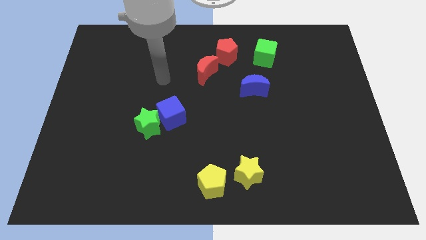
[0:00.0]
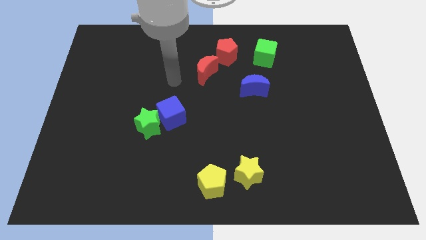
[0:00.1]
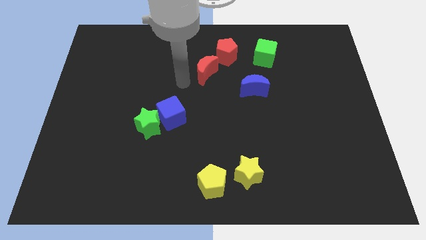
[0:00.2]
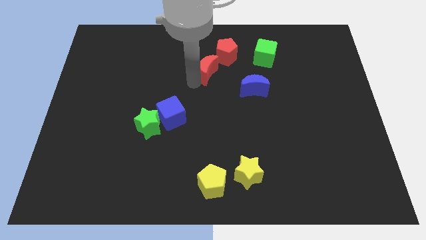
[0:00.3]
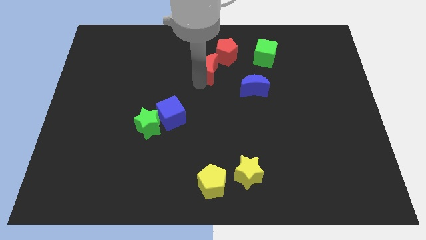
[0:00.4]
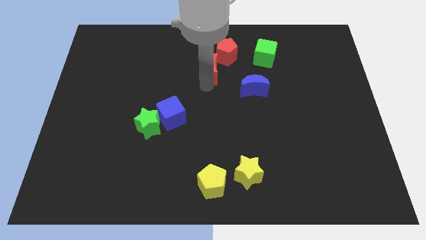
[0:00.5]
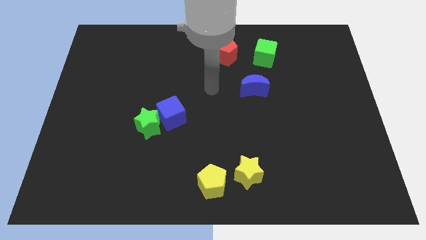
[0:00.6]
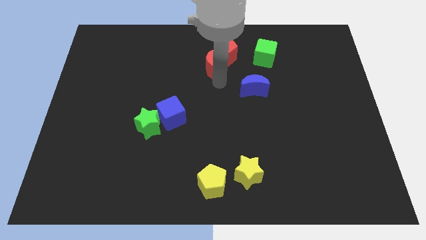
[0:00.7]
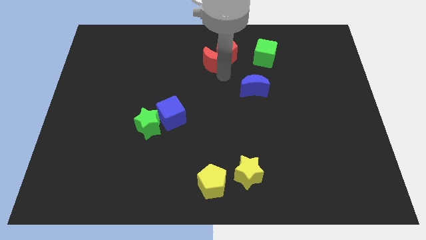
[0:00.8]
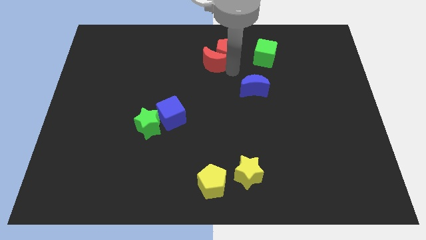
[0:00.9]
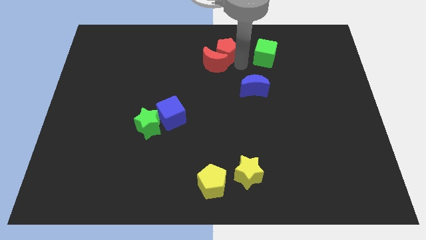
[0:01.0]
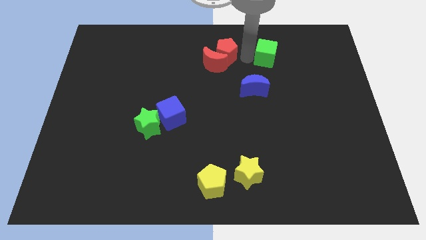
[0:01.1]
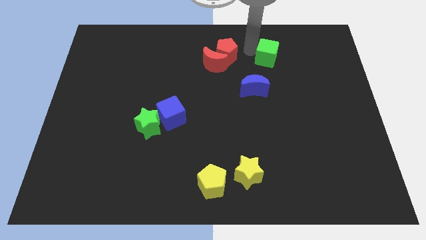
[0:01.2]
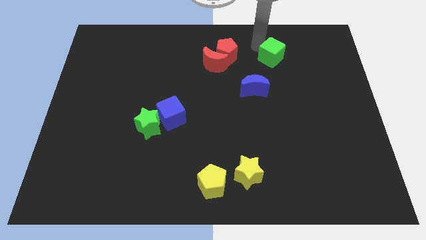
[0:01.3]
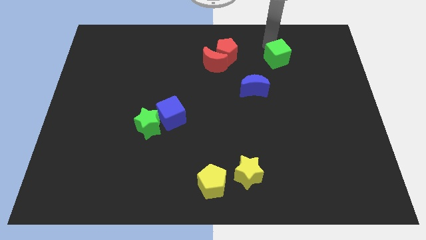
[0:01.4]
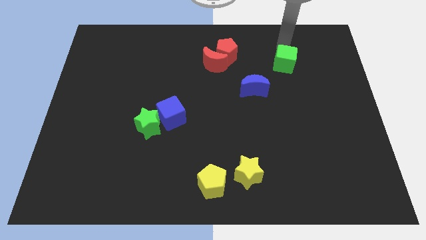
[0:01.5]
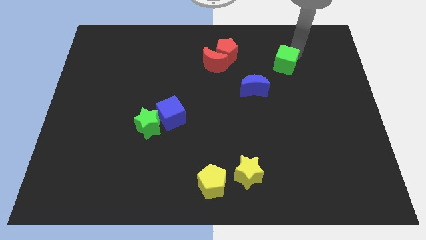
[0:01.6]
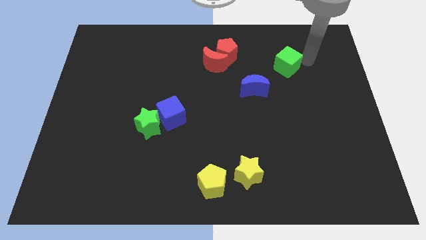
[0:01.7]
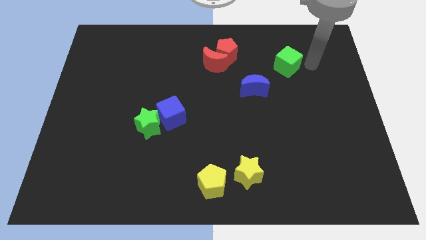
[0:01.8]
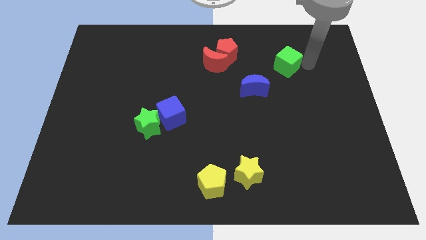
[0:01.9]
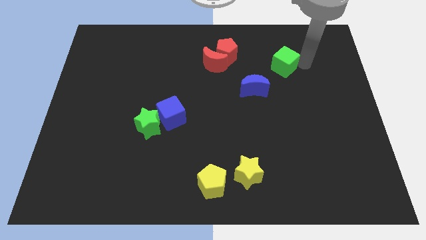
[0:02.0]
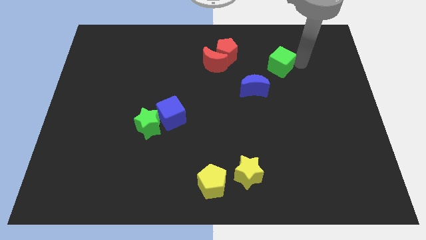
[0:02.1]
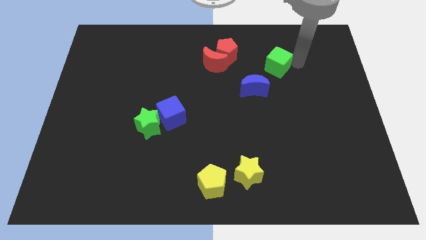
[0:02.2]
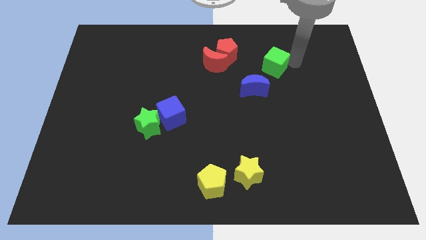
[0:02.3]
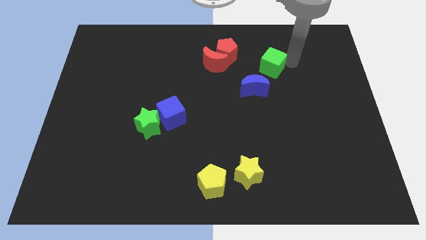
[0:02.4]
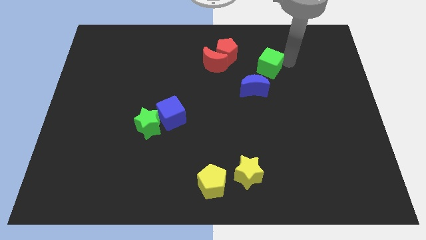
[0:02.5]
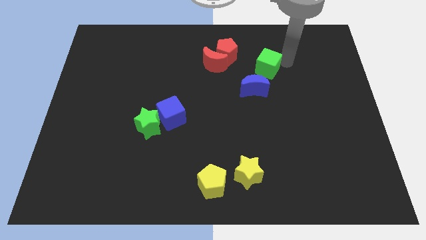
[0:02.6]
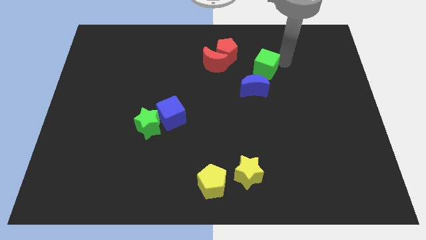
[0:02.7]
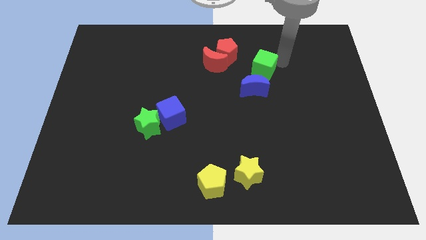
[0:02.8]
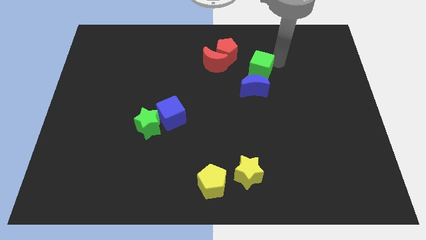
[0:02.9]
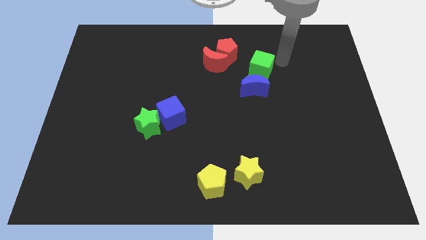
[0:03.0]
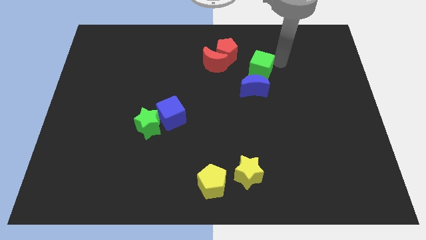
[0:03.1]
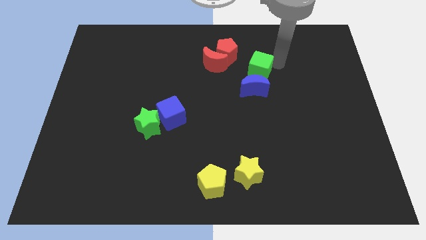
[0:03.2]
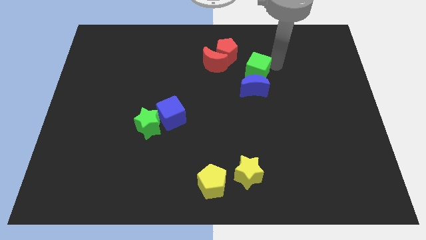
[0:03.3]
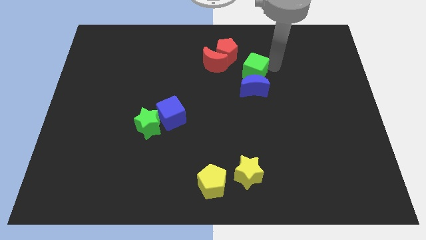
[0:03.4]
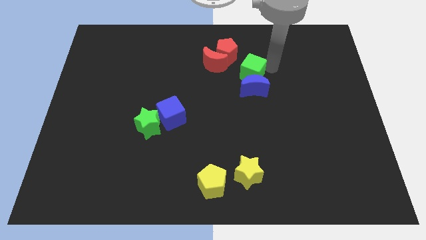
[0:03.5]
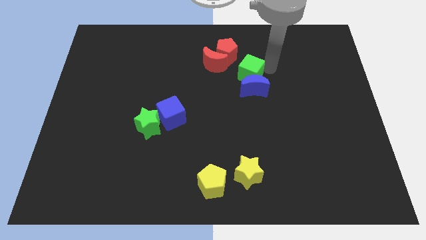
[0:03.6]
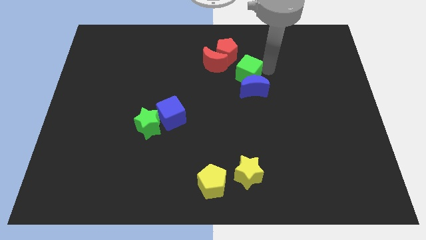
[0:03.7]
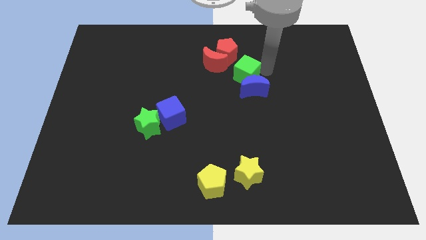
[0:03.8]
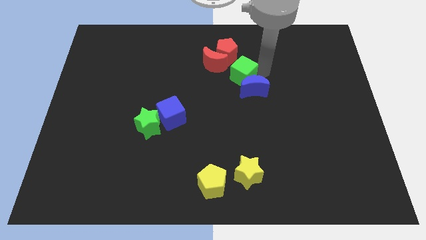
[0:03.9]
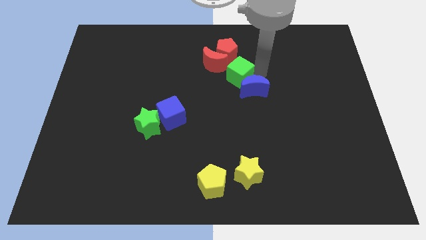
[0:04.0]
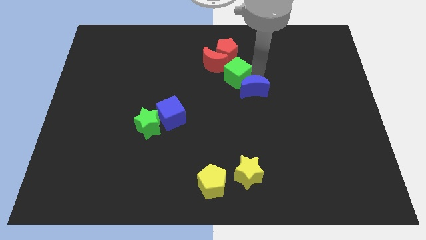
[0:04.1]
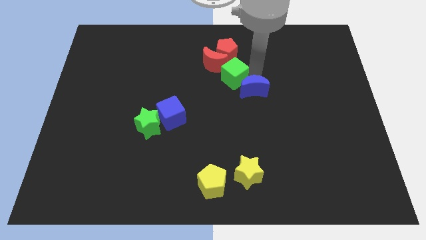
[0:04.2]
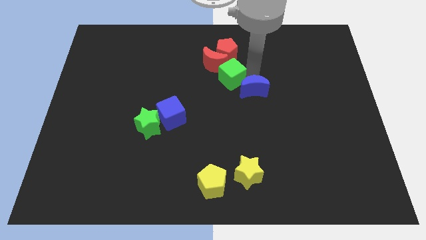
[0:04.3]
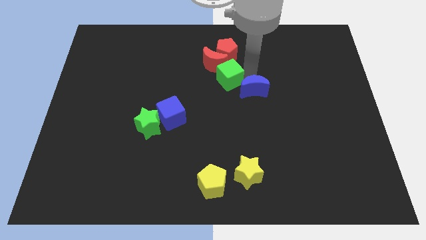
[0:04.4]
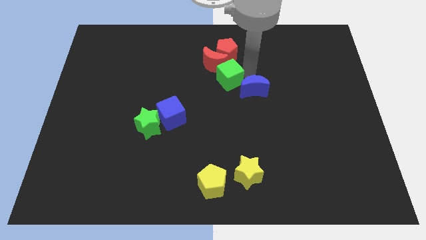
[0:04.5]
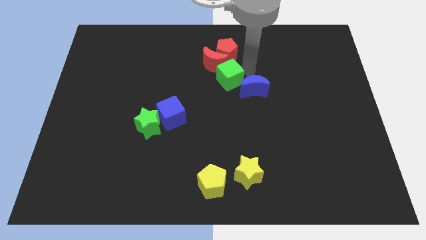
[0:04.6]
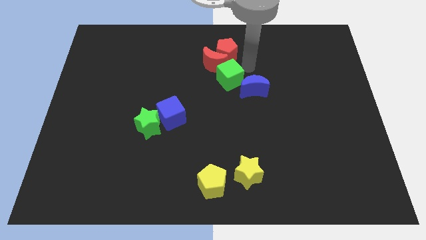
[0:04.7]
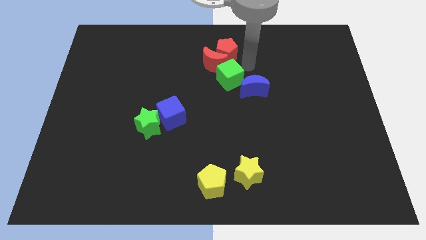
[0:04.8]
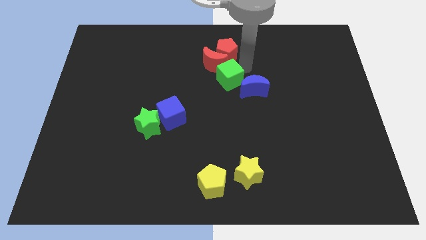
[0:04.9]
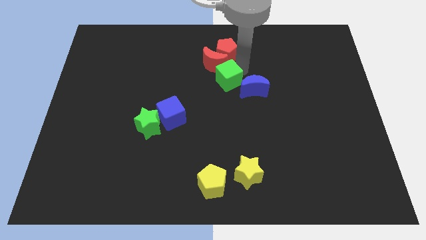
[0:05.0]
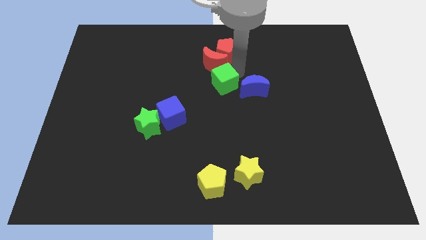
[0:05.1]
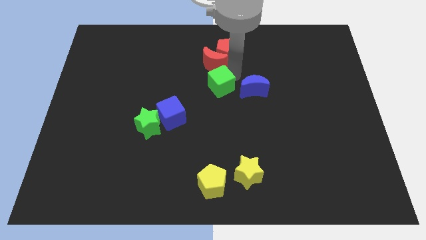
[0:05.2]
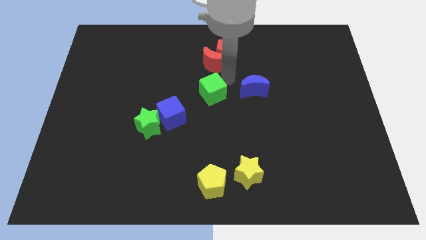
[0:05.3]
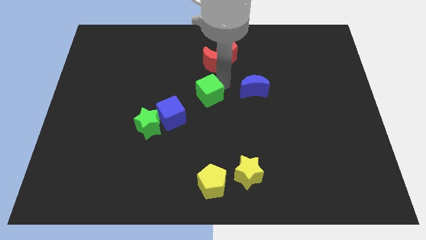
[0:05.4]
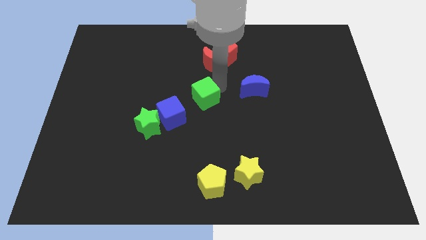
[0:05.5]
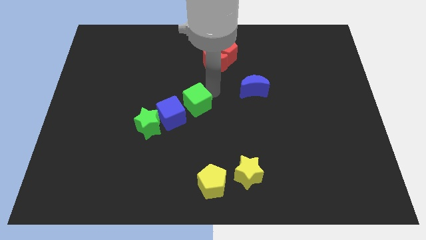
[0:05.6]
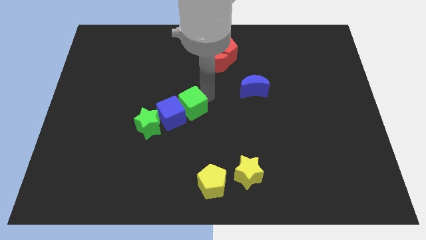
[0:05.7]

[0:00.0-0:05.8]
push the green cube towards the blue cube
